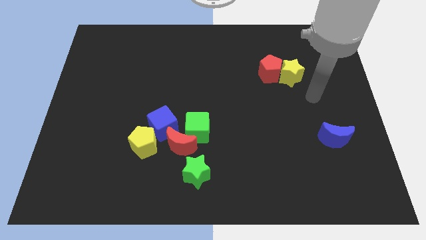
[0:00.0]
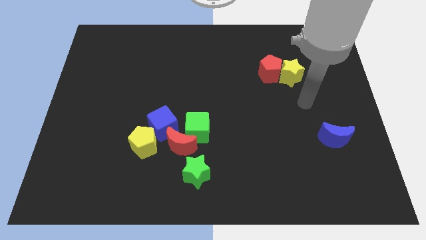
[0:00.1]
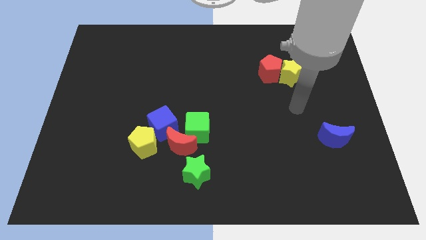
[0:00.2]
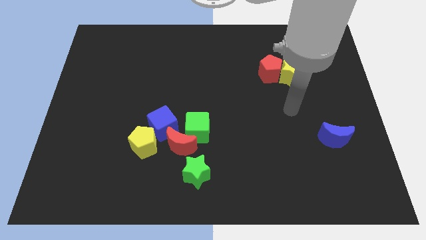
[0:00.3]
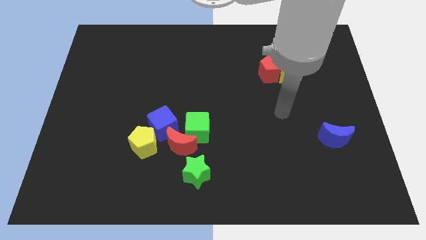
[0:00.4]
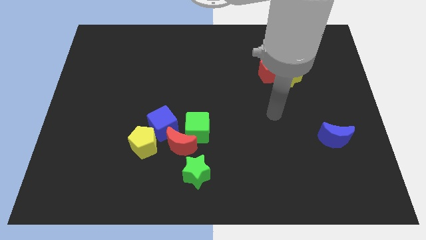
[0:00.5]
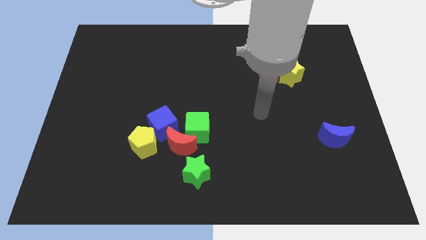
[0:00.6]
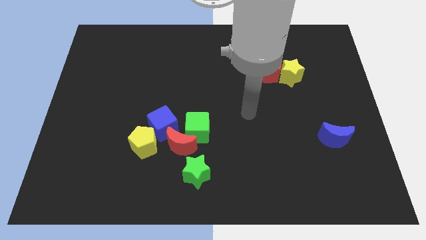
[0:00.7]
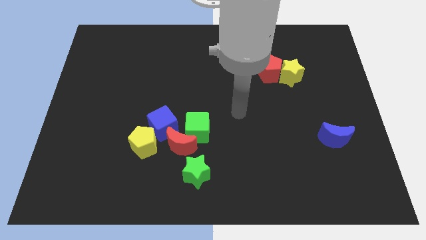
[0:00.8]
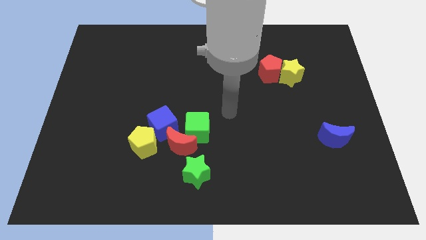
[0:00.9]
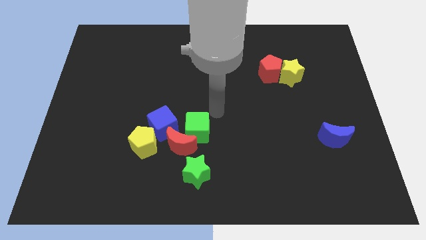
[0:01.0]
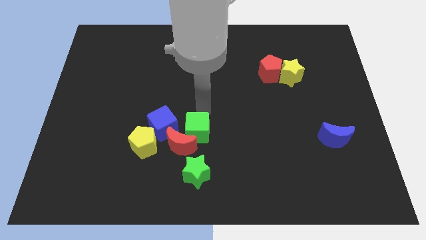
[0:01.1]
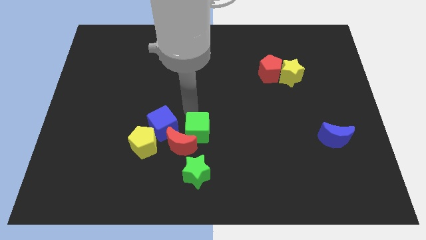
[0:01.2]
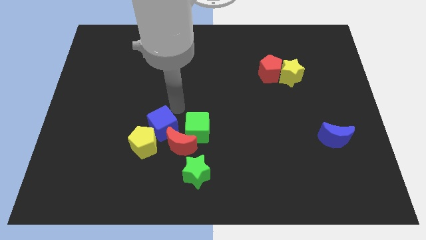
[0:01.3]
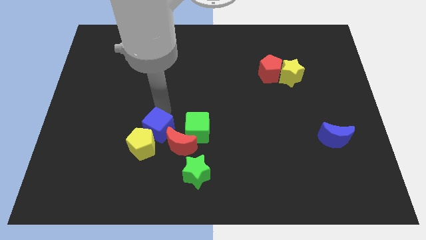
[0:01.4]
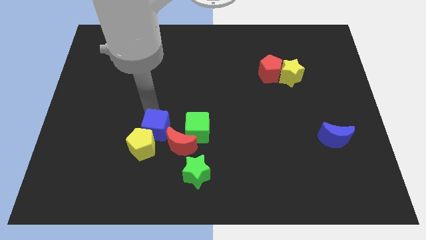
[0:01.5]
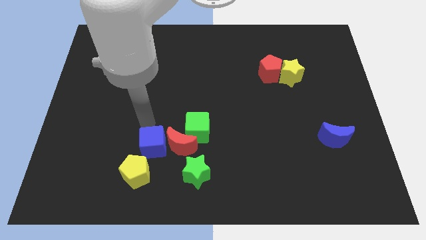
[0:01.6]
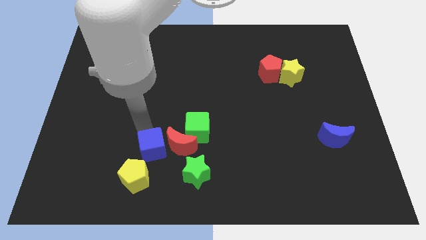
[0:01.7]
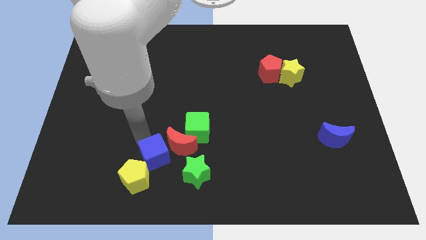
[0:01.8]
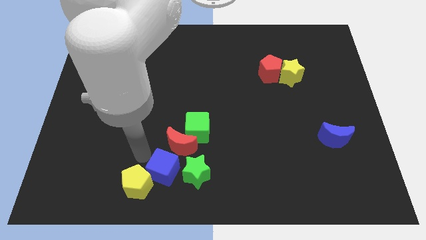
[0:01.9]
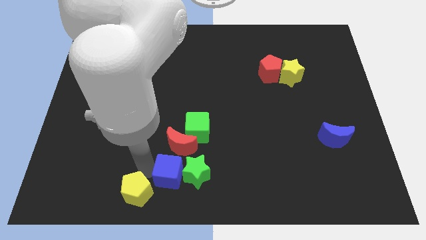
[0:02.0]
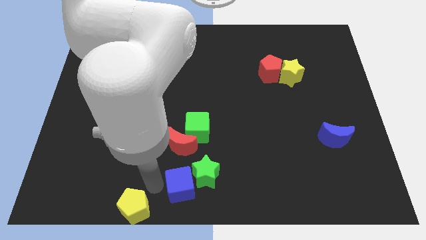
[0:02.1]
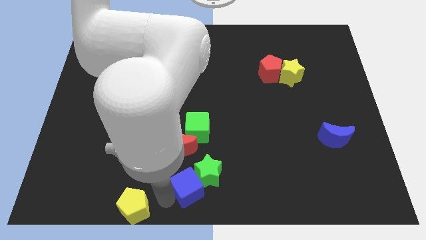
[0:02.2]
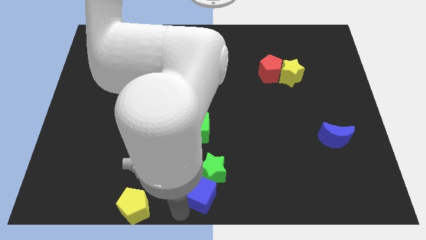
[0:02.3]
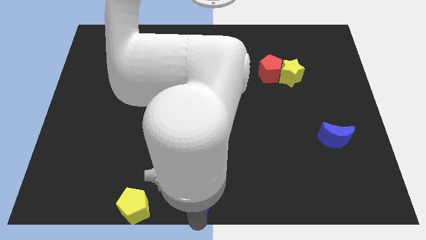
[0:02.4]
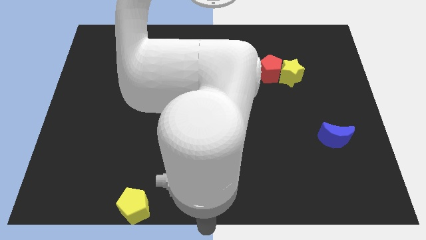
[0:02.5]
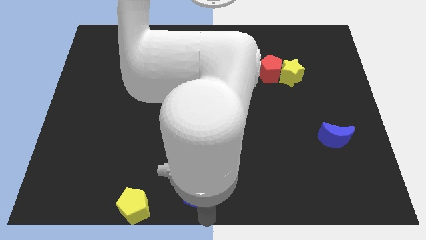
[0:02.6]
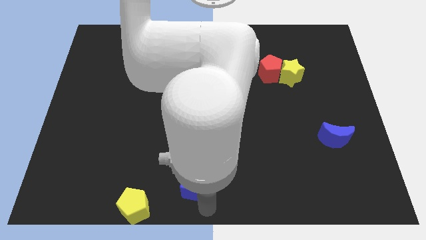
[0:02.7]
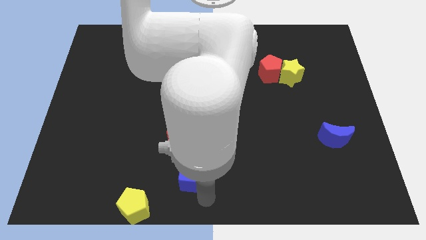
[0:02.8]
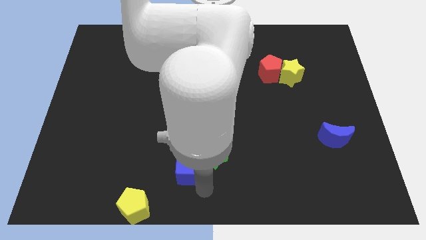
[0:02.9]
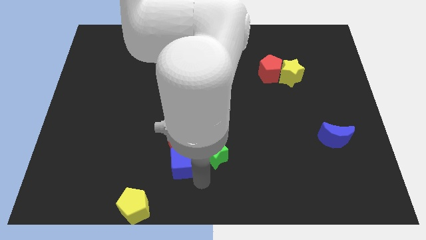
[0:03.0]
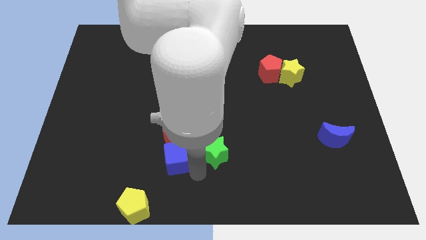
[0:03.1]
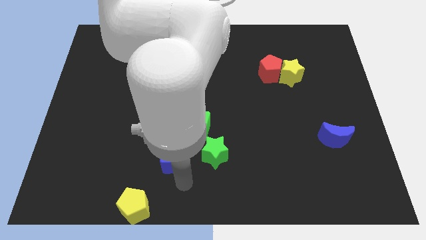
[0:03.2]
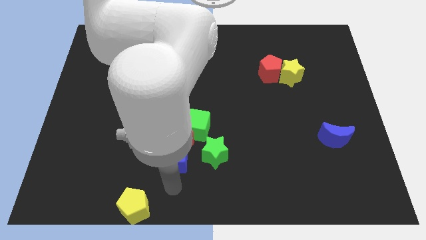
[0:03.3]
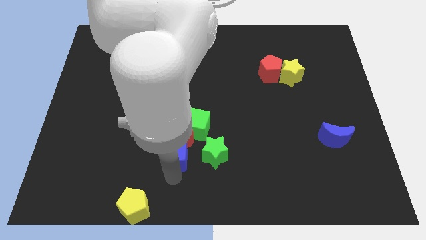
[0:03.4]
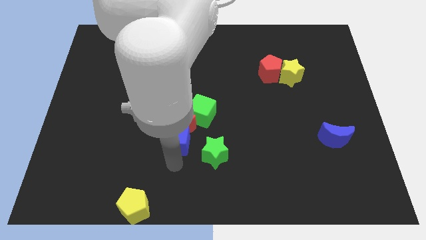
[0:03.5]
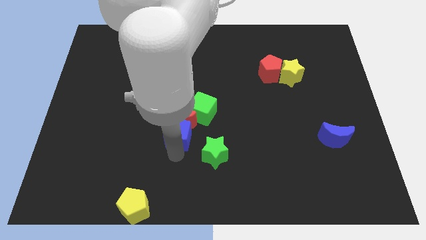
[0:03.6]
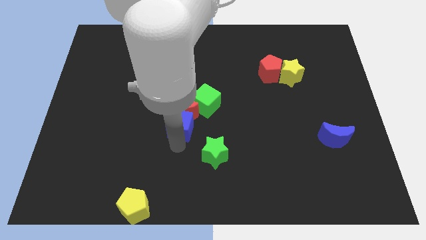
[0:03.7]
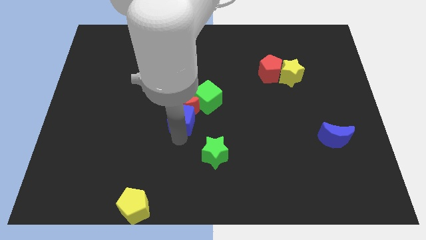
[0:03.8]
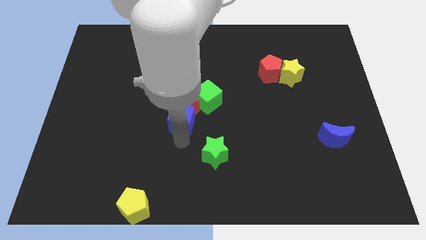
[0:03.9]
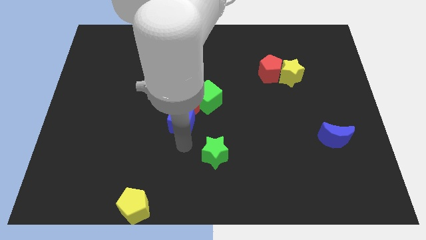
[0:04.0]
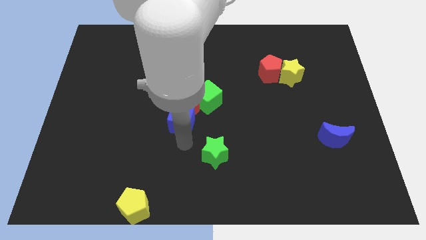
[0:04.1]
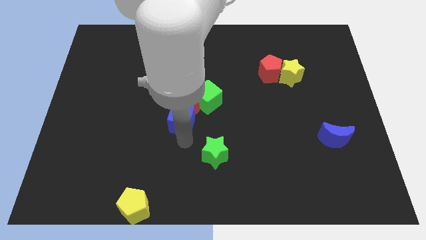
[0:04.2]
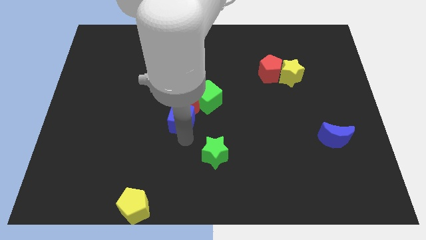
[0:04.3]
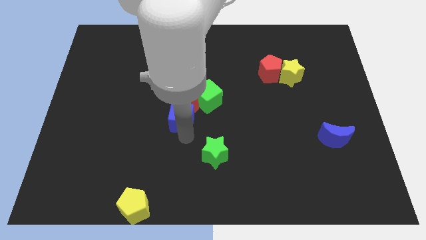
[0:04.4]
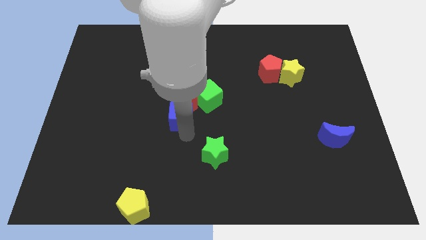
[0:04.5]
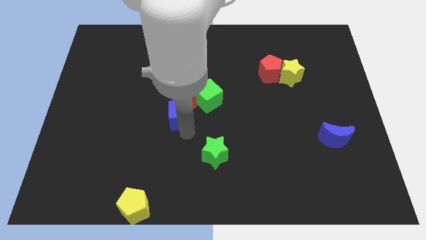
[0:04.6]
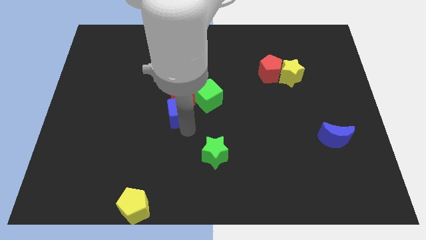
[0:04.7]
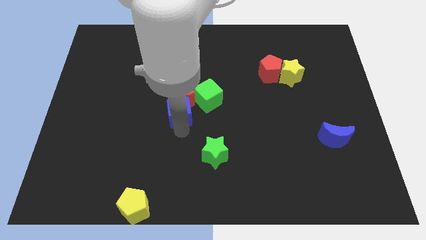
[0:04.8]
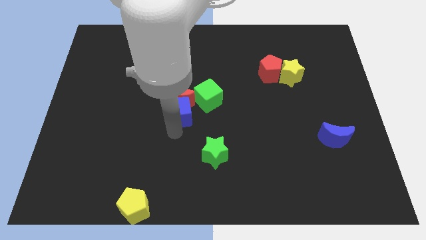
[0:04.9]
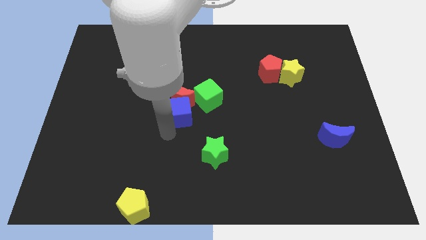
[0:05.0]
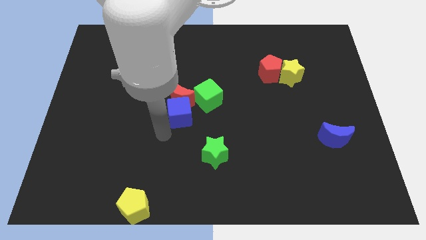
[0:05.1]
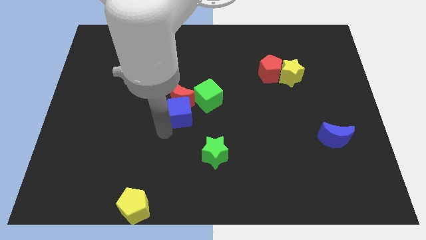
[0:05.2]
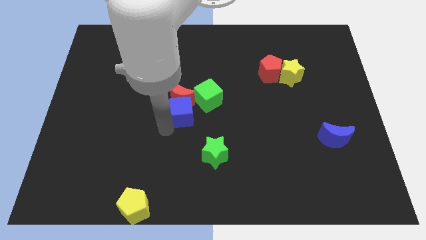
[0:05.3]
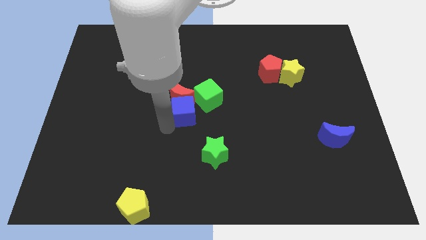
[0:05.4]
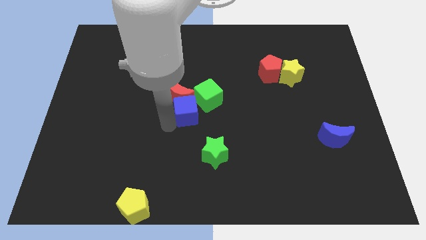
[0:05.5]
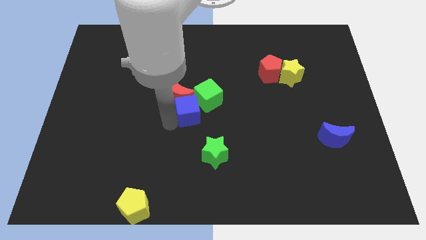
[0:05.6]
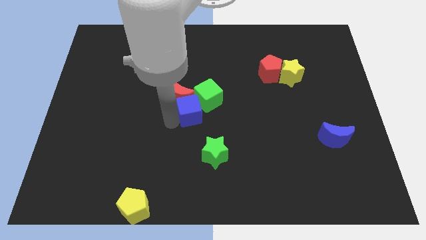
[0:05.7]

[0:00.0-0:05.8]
slide the blue cube a little bit up and to the right

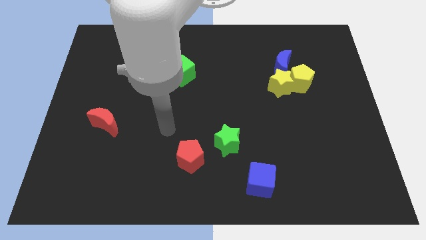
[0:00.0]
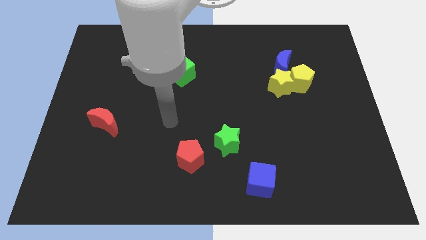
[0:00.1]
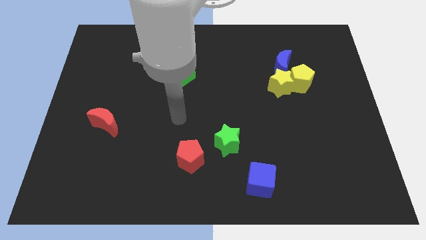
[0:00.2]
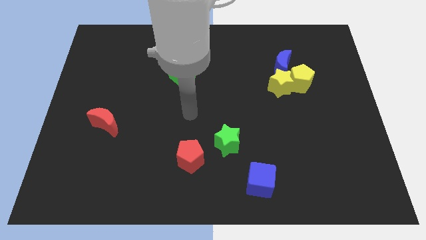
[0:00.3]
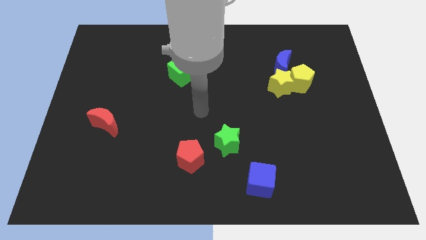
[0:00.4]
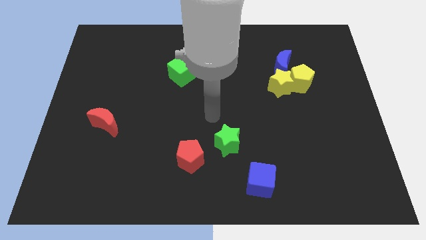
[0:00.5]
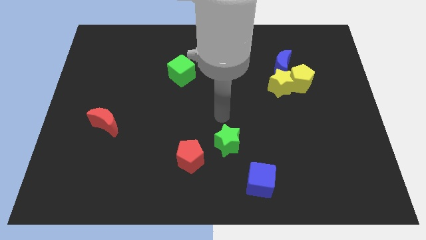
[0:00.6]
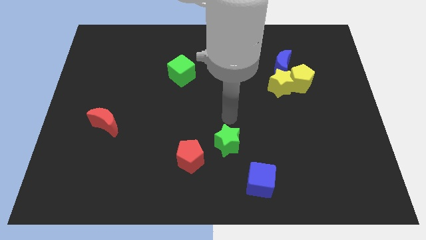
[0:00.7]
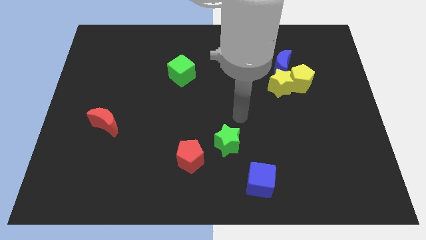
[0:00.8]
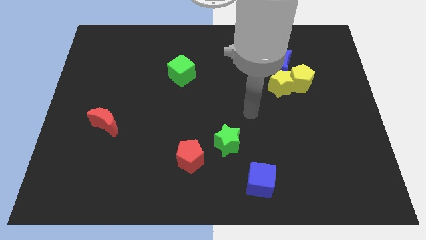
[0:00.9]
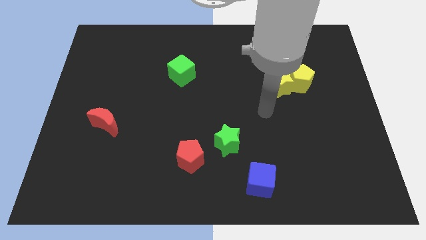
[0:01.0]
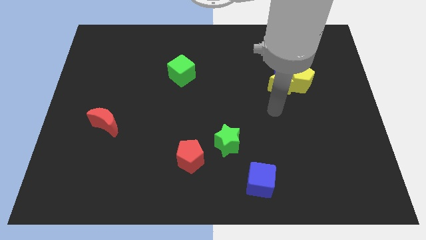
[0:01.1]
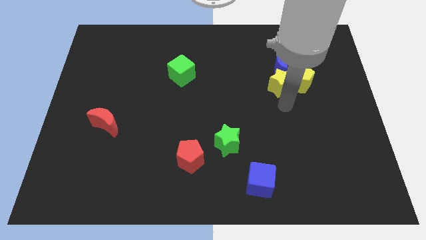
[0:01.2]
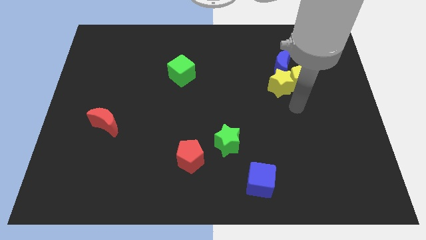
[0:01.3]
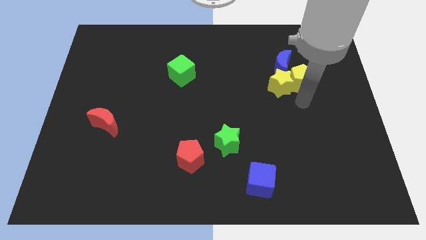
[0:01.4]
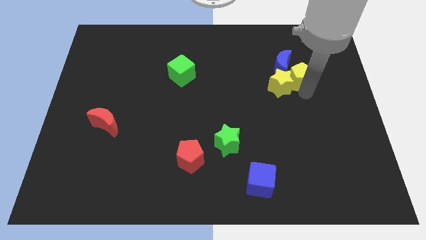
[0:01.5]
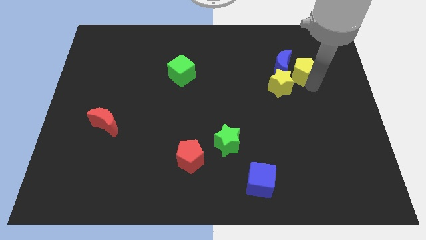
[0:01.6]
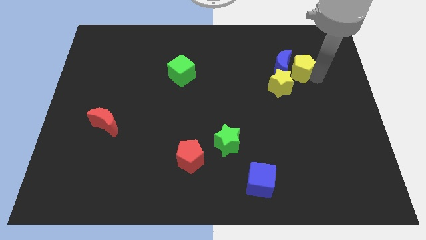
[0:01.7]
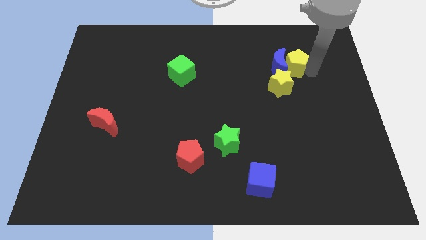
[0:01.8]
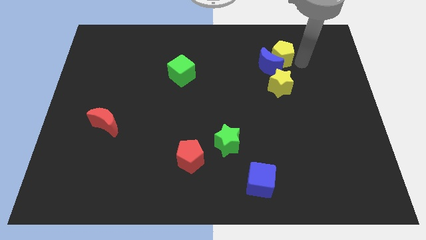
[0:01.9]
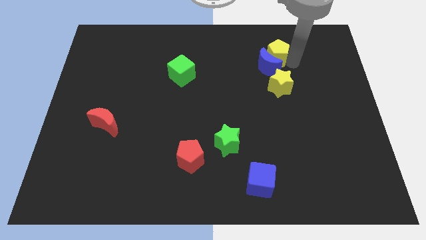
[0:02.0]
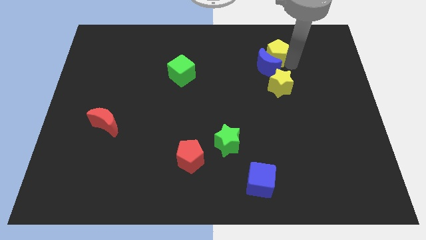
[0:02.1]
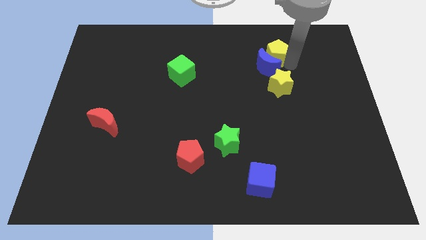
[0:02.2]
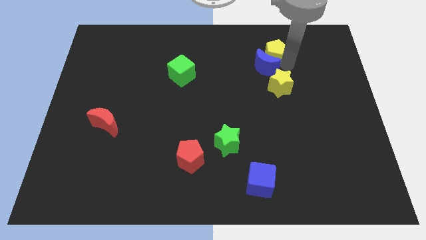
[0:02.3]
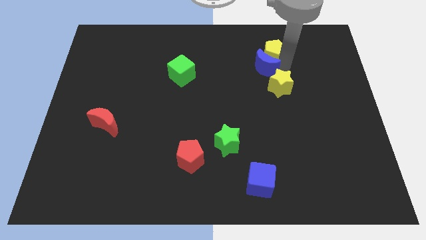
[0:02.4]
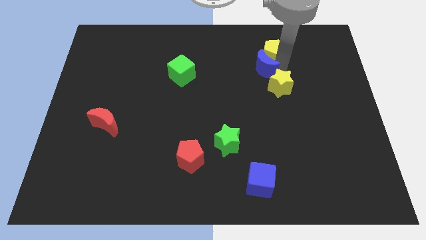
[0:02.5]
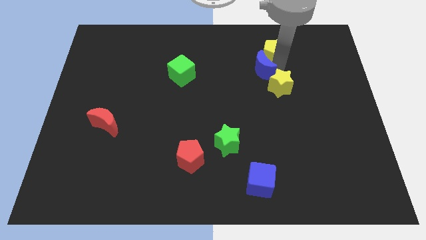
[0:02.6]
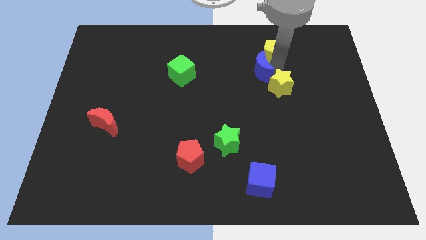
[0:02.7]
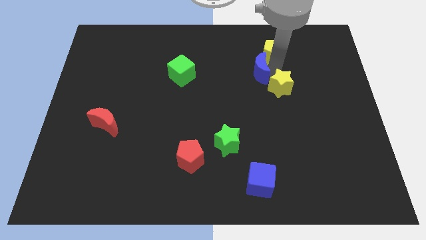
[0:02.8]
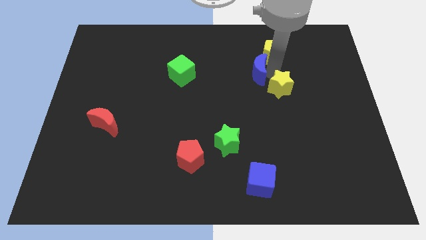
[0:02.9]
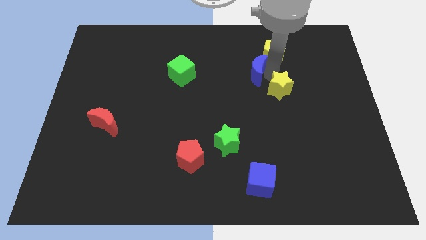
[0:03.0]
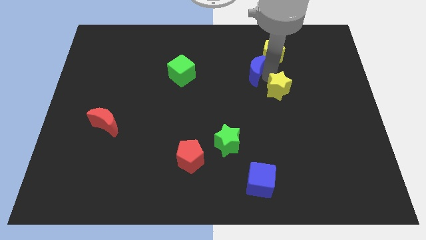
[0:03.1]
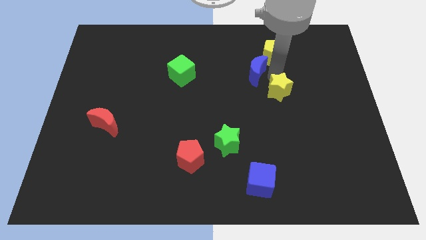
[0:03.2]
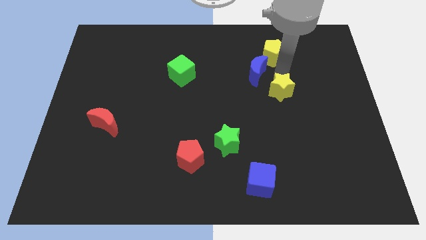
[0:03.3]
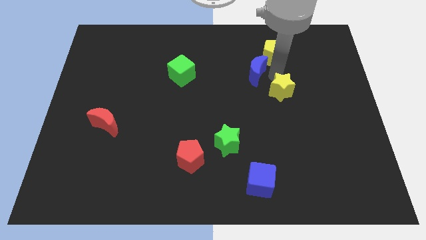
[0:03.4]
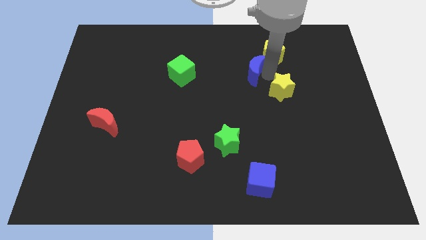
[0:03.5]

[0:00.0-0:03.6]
push the blue moon slightly to the left
